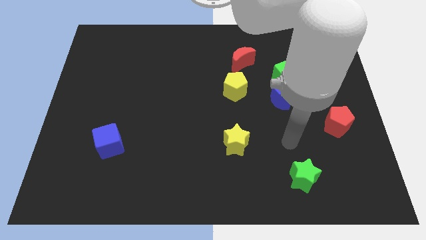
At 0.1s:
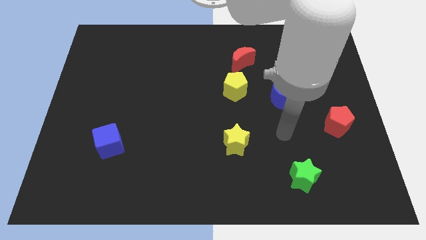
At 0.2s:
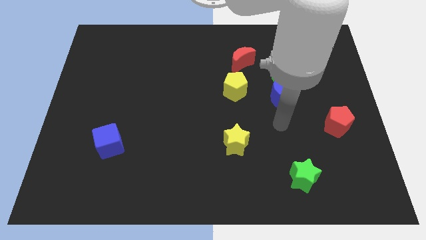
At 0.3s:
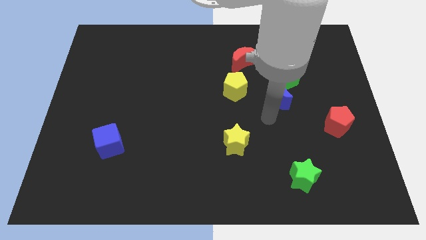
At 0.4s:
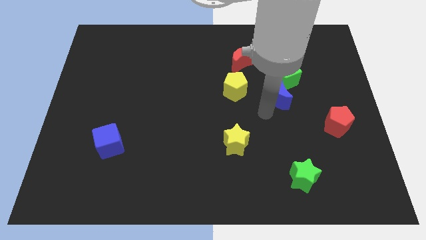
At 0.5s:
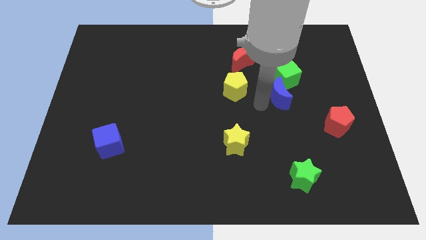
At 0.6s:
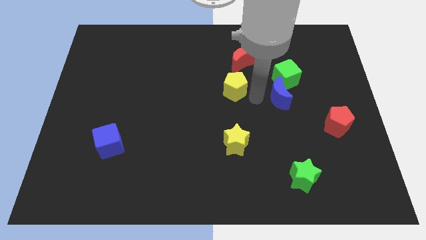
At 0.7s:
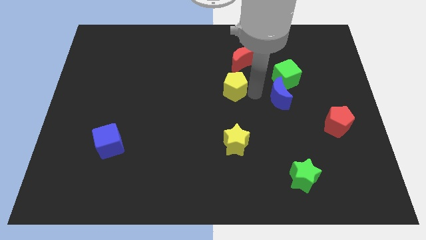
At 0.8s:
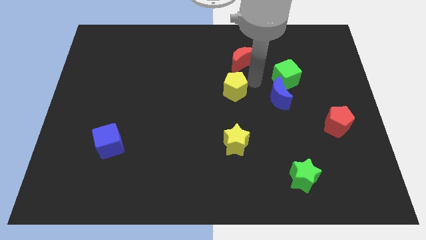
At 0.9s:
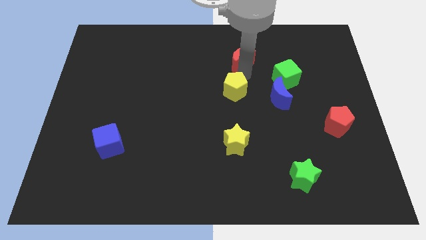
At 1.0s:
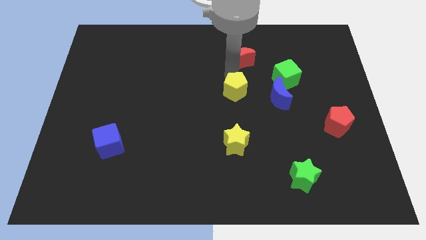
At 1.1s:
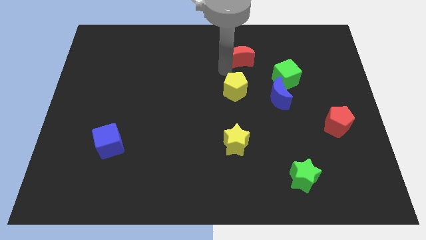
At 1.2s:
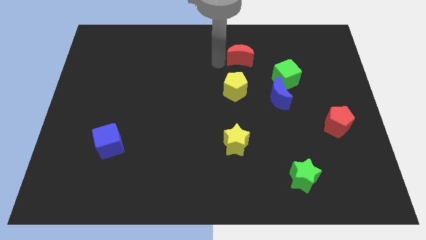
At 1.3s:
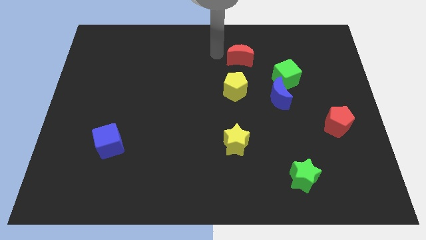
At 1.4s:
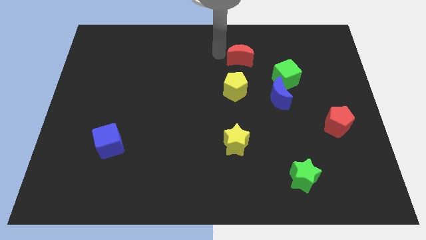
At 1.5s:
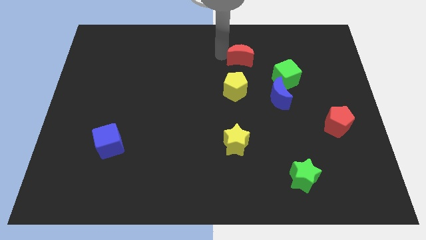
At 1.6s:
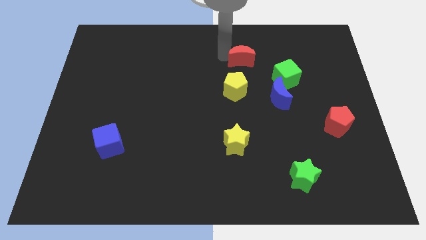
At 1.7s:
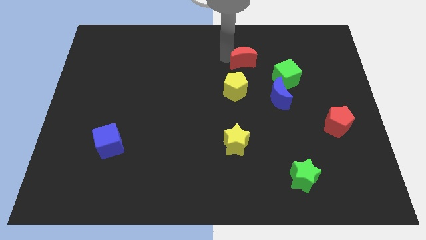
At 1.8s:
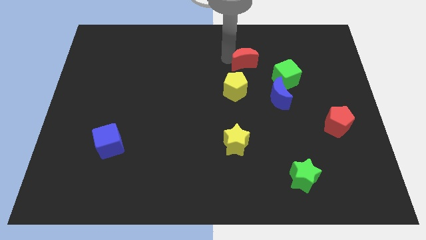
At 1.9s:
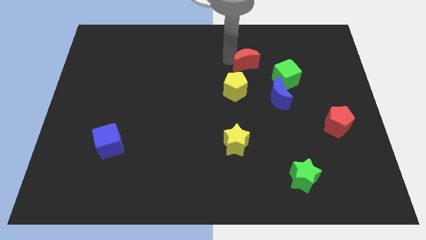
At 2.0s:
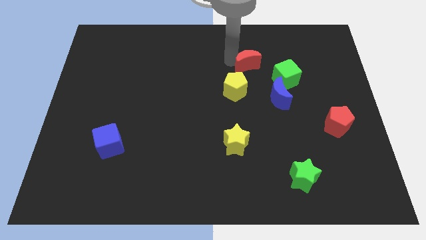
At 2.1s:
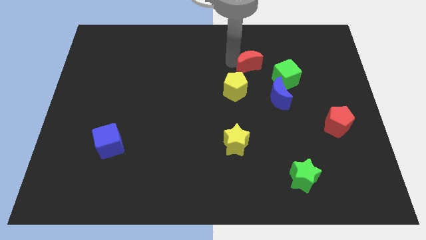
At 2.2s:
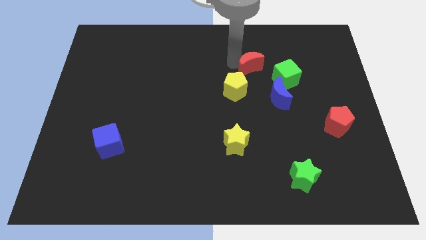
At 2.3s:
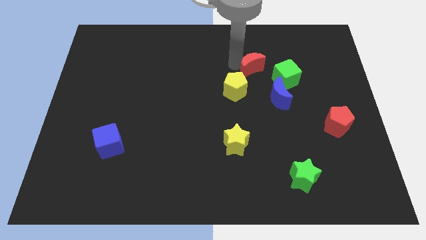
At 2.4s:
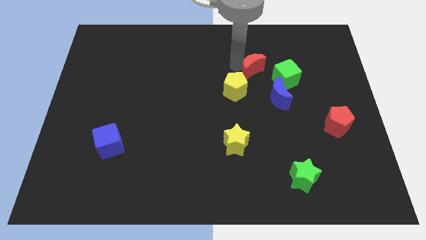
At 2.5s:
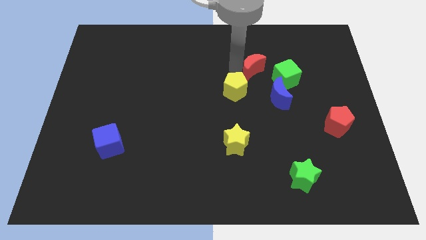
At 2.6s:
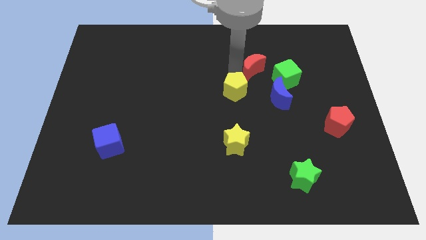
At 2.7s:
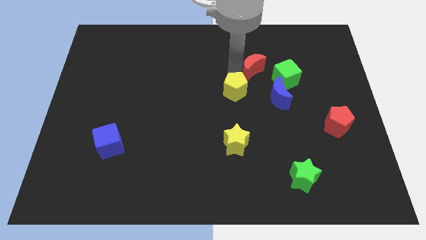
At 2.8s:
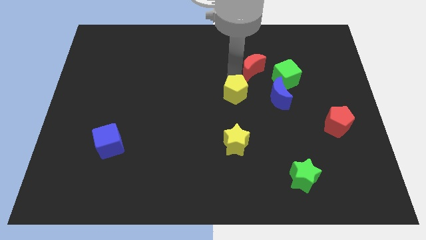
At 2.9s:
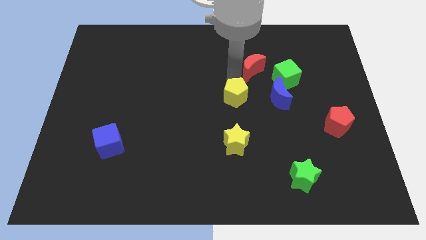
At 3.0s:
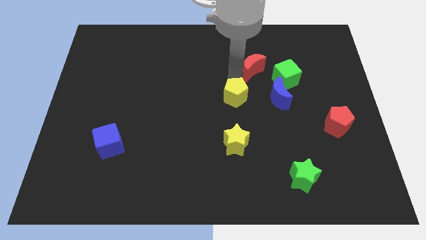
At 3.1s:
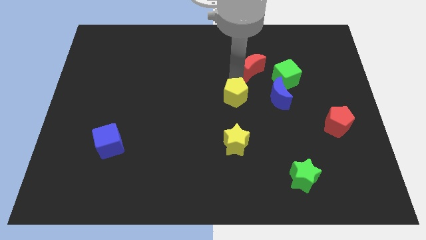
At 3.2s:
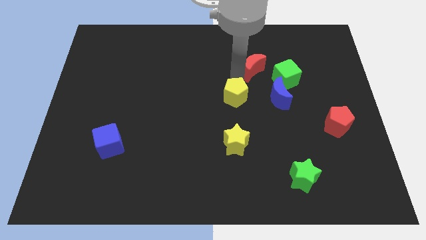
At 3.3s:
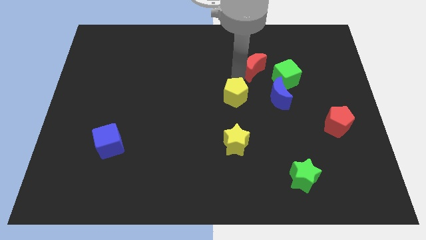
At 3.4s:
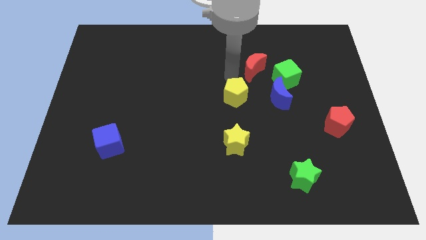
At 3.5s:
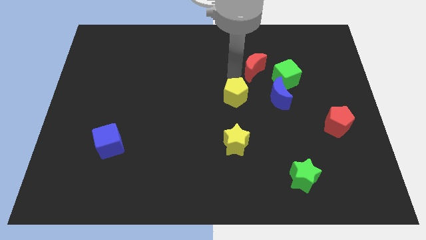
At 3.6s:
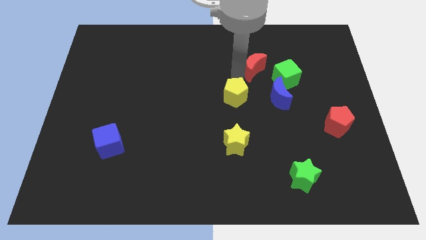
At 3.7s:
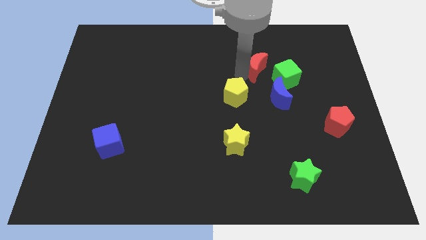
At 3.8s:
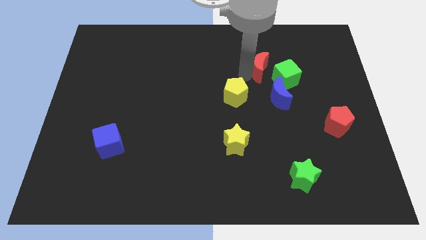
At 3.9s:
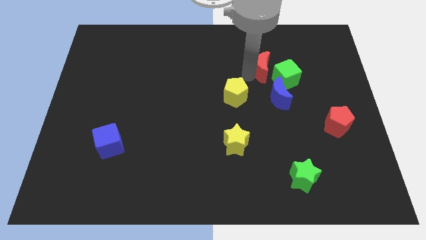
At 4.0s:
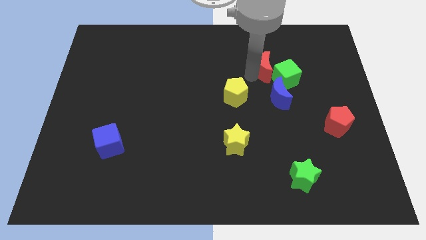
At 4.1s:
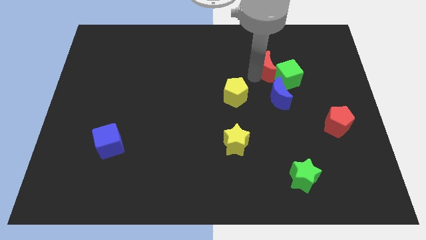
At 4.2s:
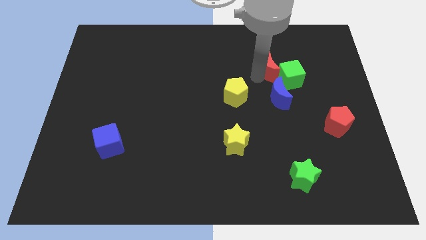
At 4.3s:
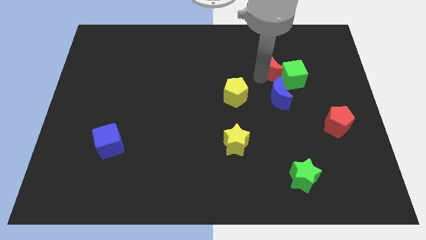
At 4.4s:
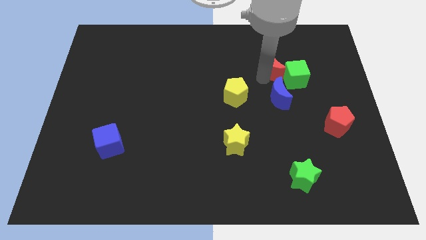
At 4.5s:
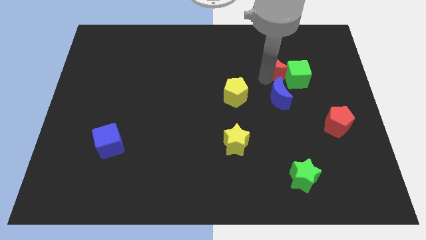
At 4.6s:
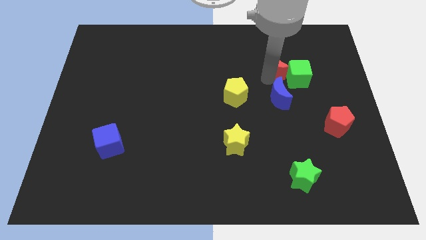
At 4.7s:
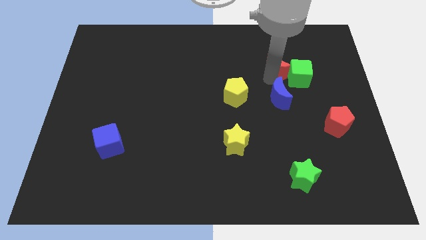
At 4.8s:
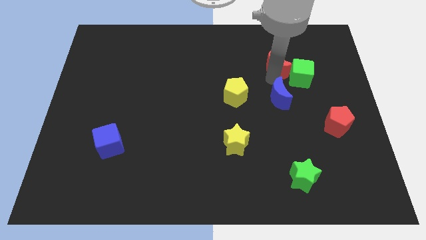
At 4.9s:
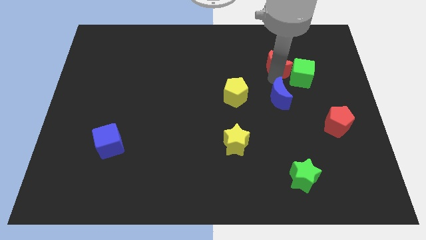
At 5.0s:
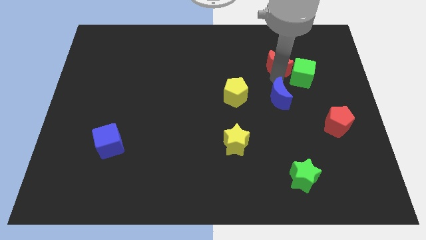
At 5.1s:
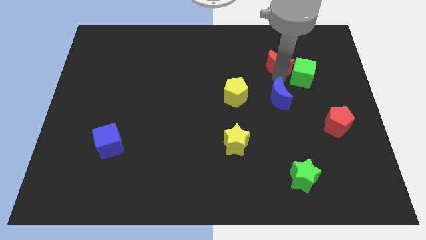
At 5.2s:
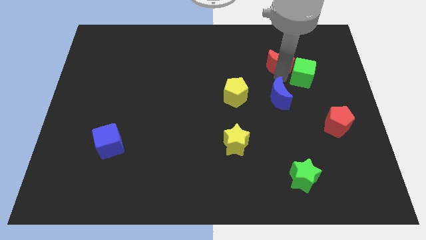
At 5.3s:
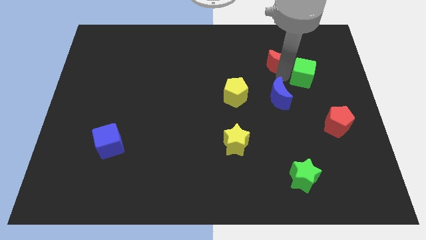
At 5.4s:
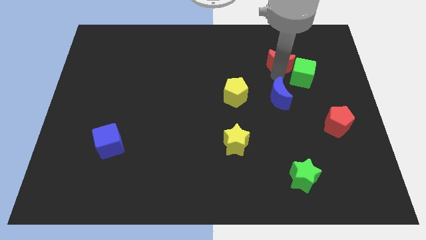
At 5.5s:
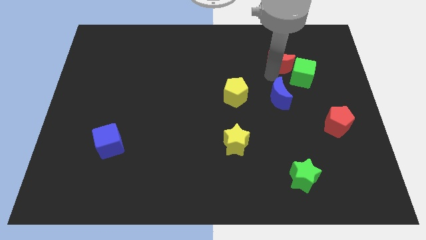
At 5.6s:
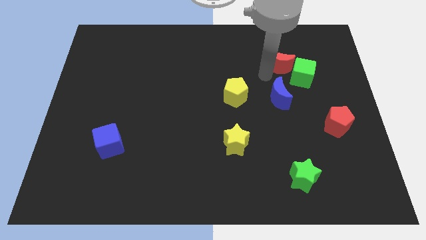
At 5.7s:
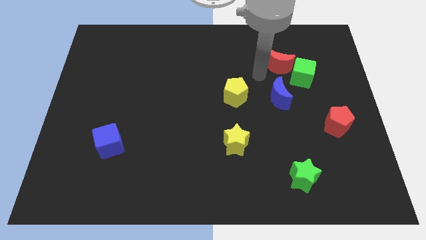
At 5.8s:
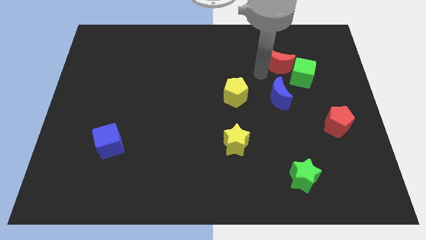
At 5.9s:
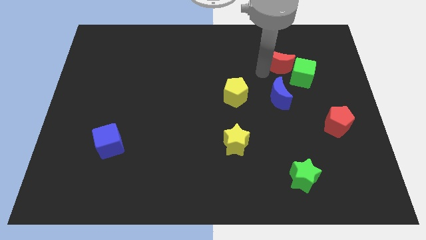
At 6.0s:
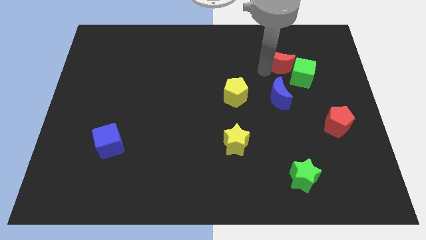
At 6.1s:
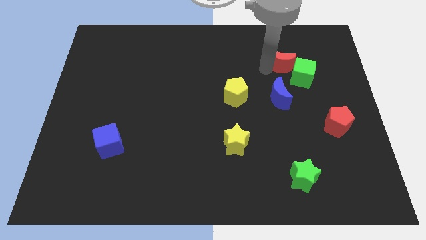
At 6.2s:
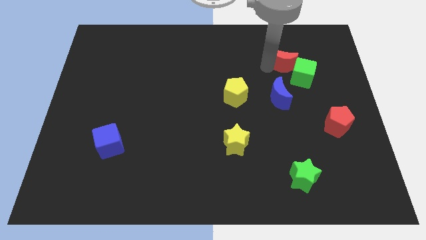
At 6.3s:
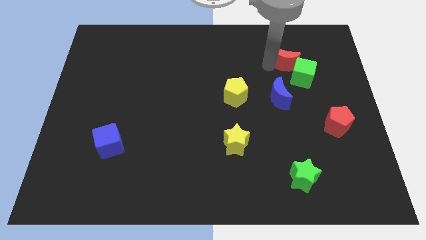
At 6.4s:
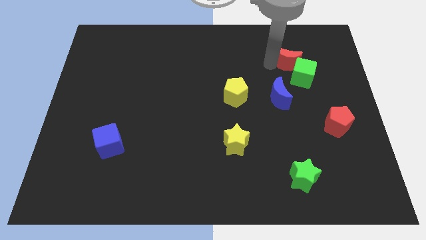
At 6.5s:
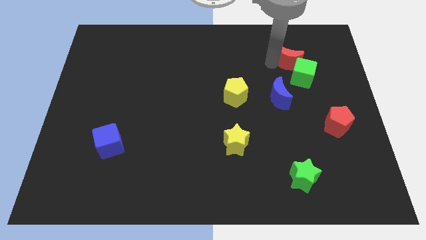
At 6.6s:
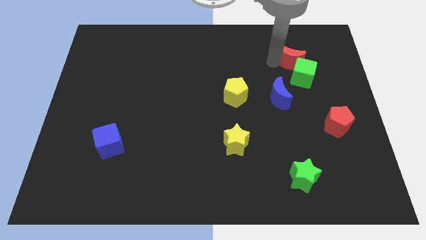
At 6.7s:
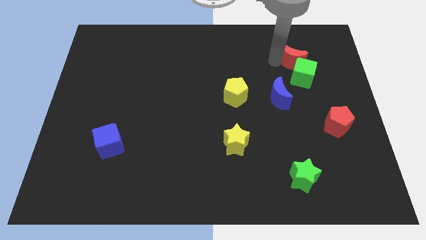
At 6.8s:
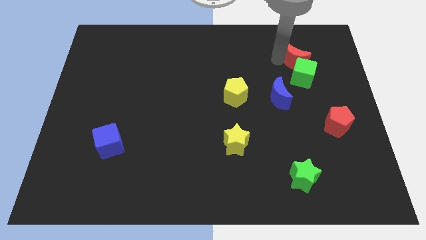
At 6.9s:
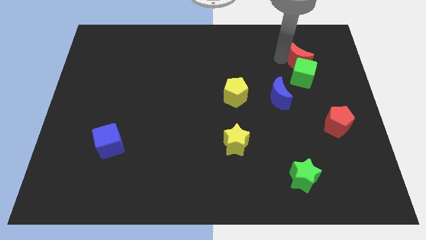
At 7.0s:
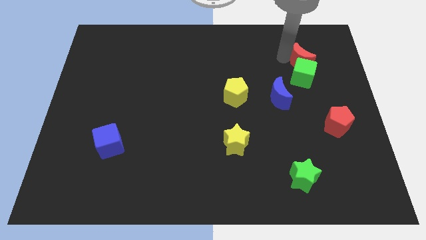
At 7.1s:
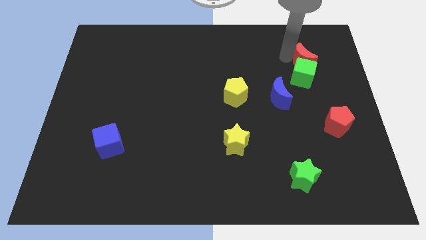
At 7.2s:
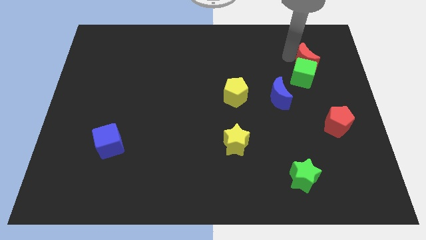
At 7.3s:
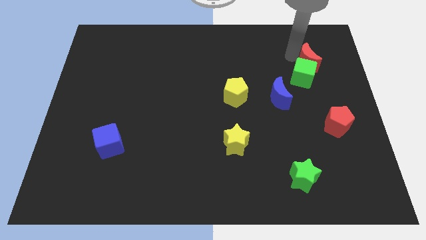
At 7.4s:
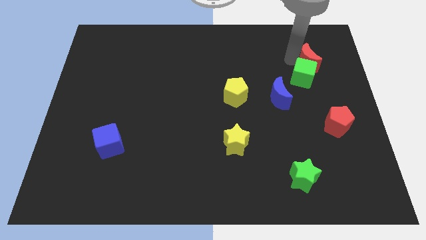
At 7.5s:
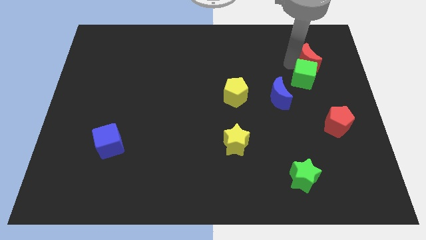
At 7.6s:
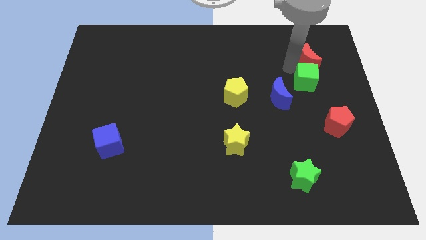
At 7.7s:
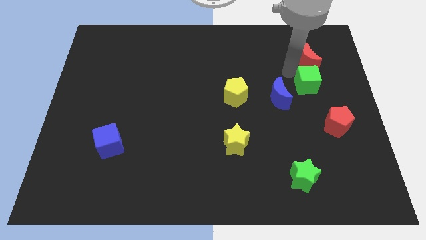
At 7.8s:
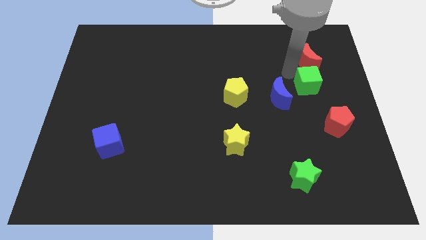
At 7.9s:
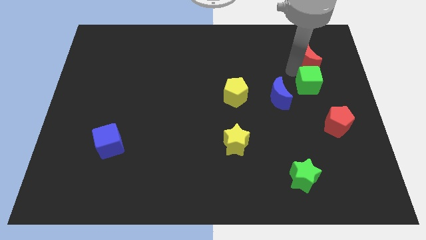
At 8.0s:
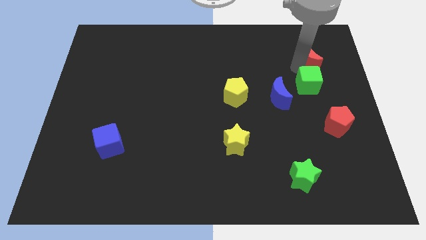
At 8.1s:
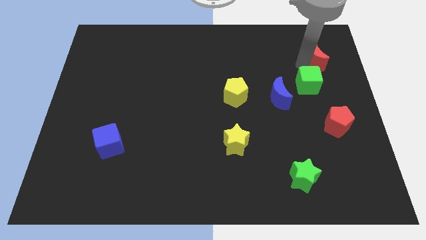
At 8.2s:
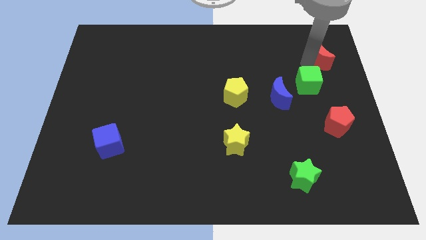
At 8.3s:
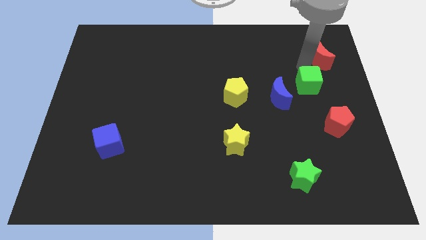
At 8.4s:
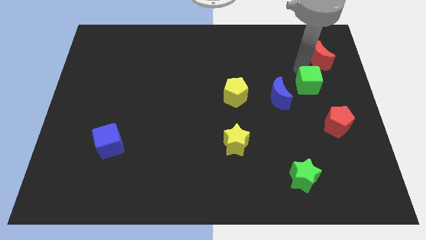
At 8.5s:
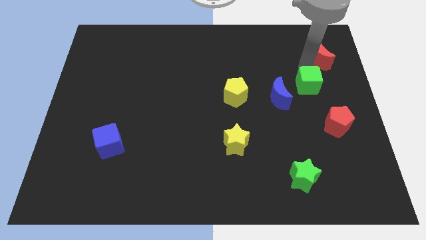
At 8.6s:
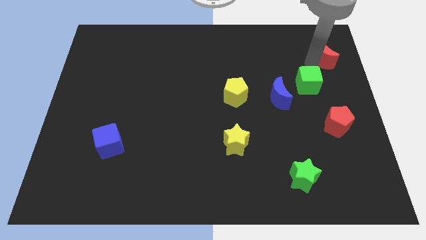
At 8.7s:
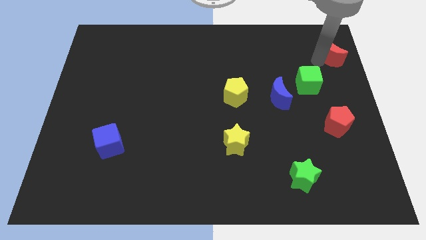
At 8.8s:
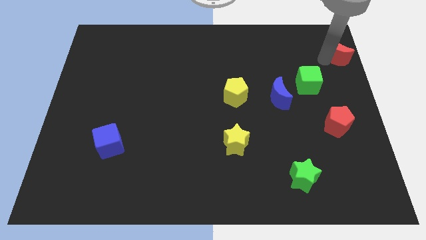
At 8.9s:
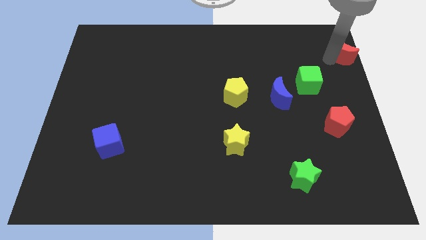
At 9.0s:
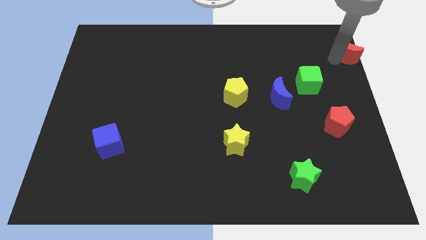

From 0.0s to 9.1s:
move the red moon to the top right corner
